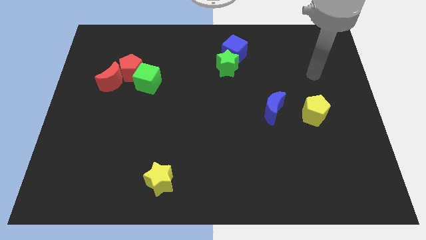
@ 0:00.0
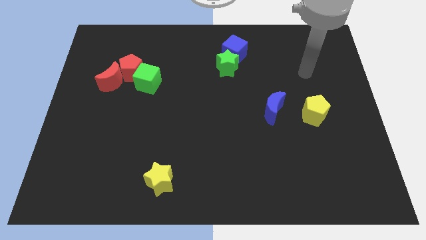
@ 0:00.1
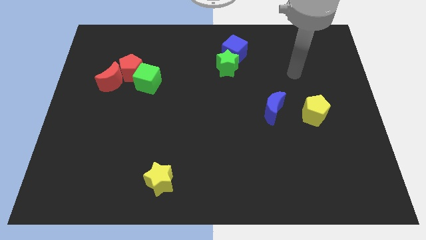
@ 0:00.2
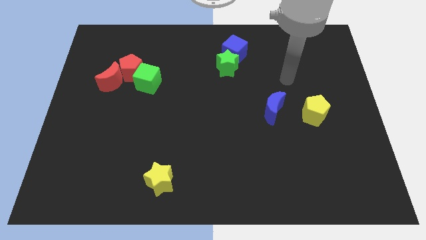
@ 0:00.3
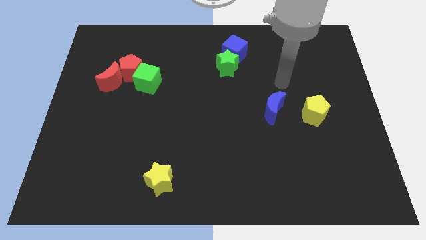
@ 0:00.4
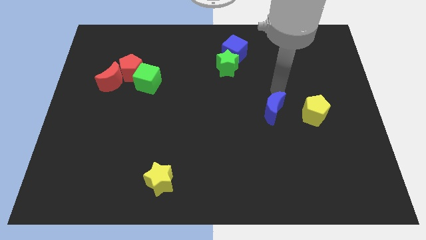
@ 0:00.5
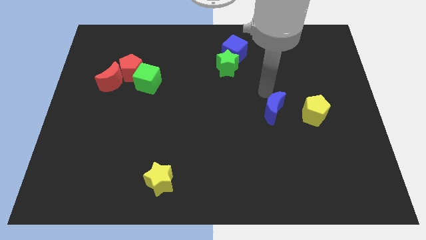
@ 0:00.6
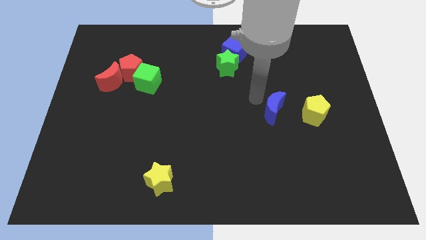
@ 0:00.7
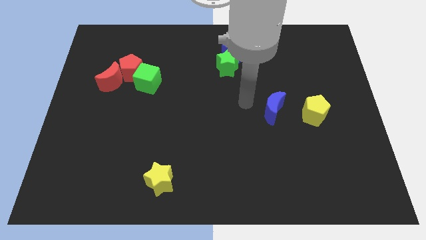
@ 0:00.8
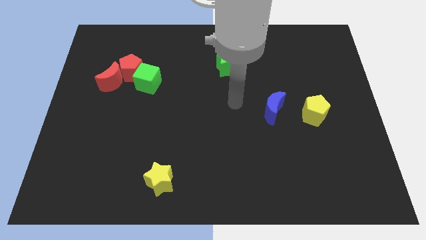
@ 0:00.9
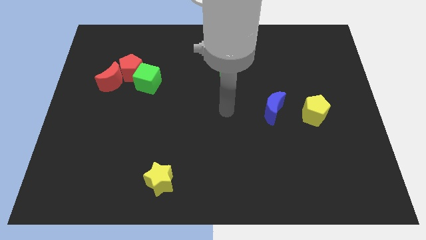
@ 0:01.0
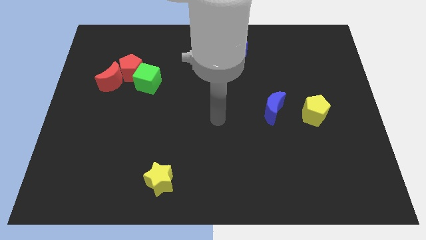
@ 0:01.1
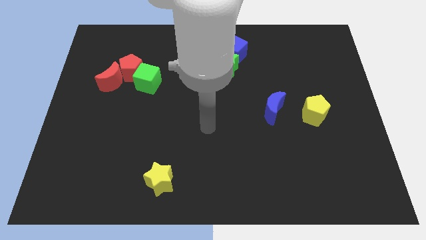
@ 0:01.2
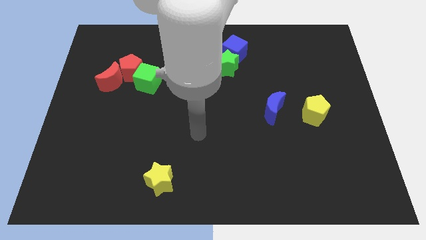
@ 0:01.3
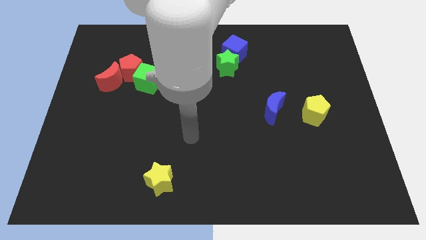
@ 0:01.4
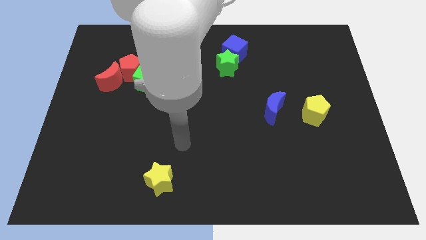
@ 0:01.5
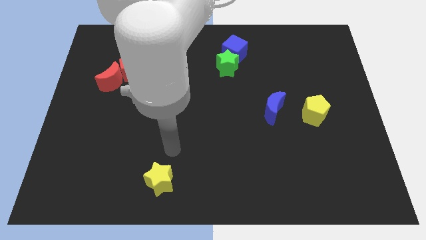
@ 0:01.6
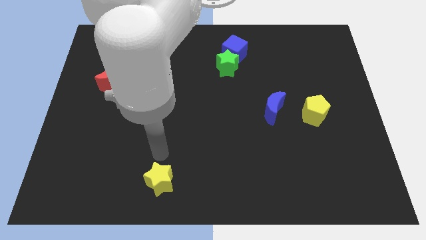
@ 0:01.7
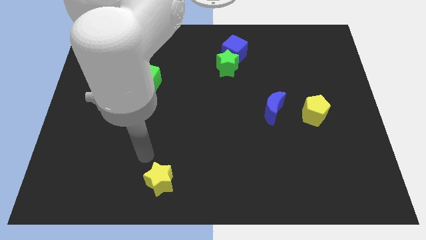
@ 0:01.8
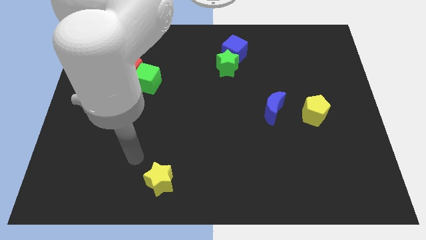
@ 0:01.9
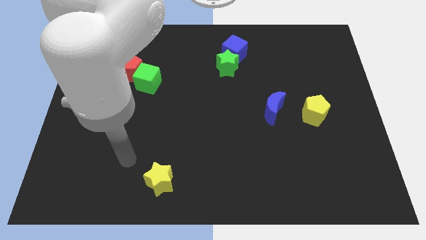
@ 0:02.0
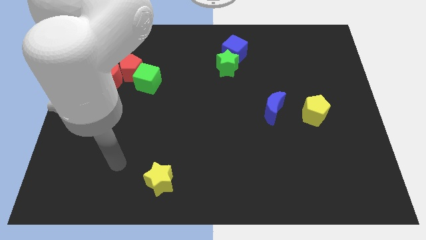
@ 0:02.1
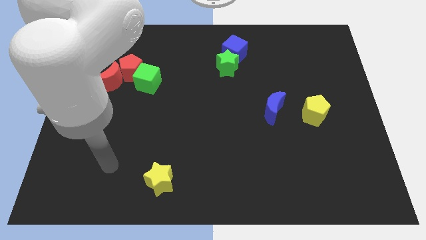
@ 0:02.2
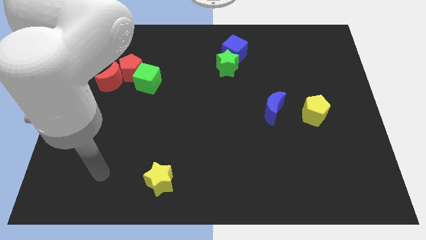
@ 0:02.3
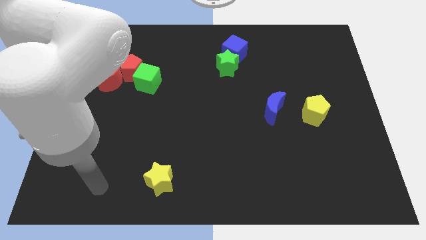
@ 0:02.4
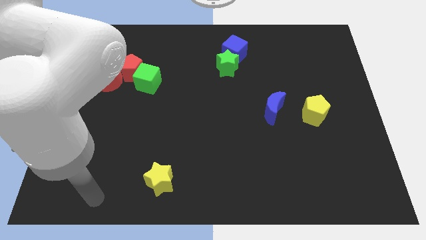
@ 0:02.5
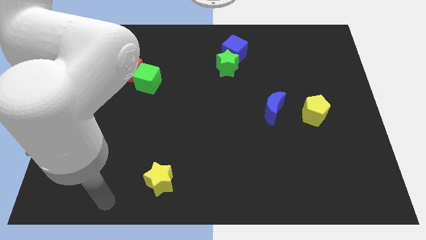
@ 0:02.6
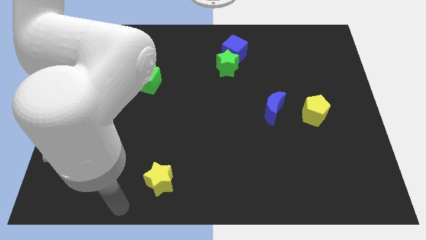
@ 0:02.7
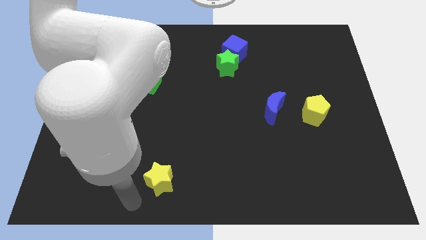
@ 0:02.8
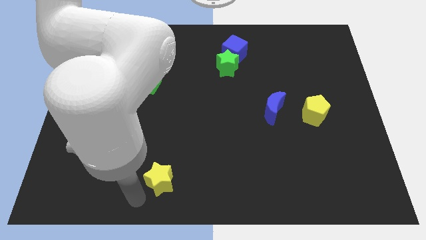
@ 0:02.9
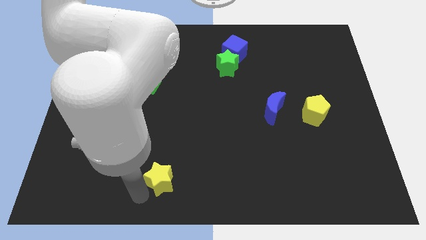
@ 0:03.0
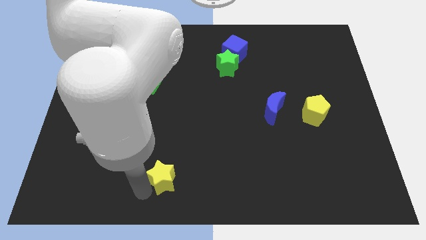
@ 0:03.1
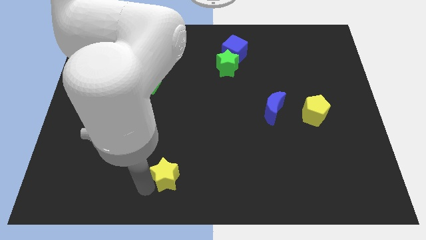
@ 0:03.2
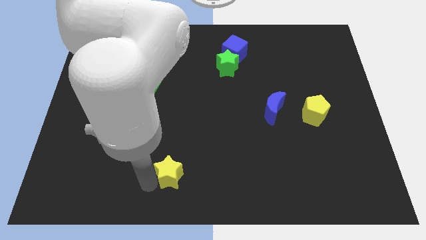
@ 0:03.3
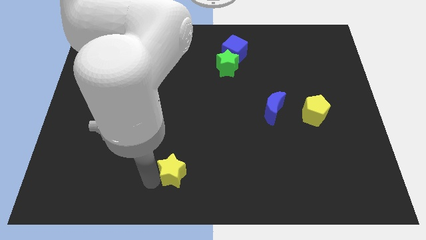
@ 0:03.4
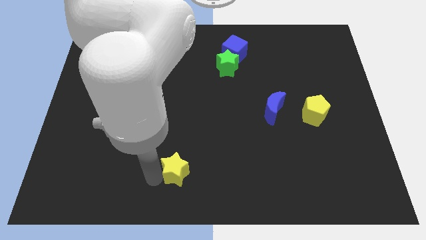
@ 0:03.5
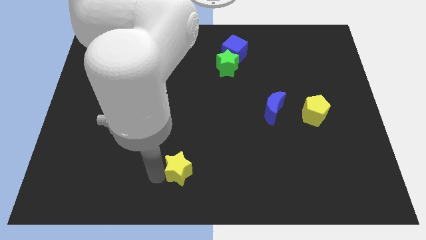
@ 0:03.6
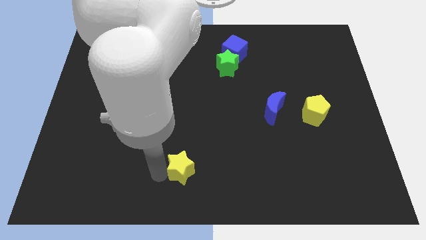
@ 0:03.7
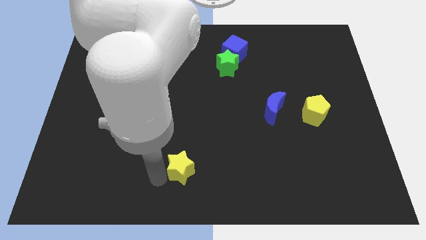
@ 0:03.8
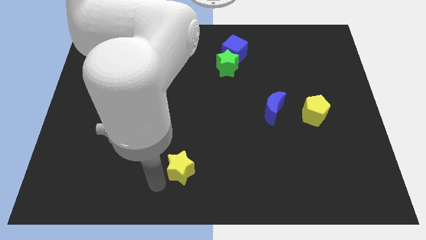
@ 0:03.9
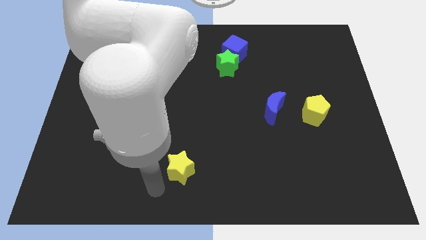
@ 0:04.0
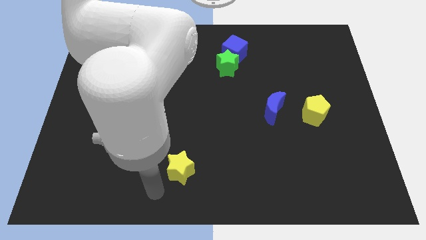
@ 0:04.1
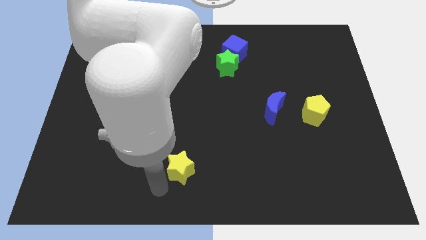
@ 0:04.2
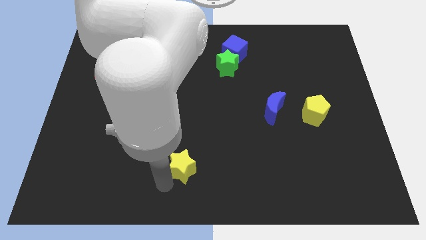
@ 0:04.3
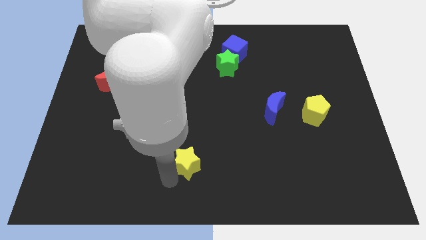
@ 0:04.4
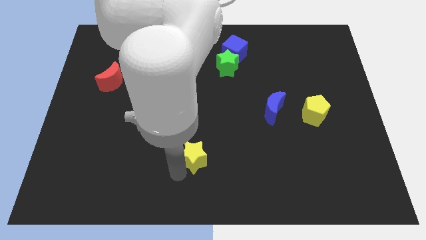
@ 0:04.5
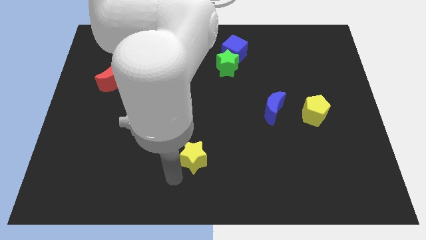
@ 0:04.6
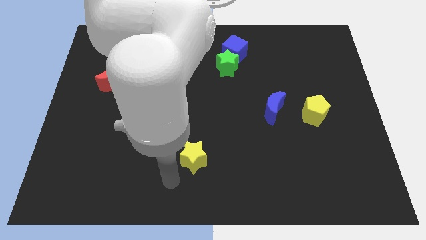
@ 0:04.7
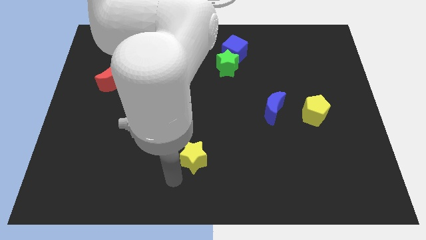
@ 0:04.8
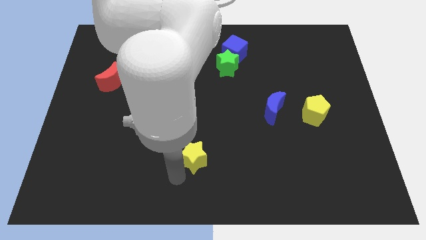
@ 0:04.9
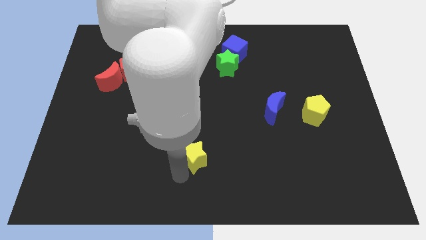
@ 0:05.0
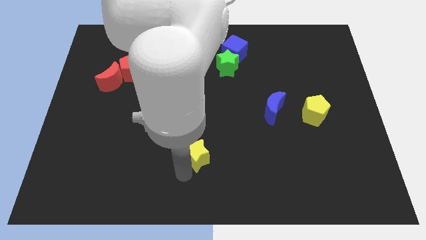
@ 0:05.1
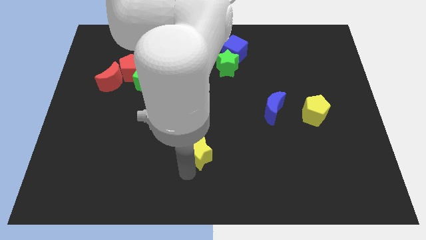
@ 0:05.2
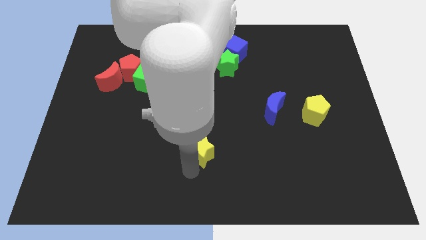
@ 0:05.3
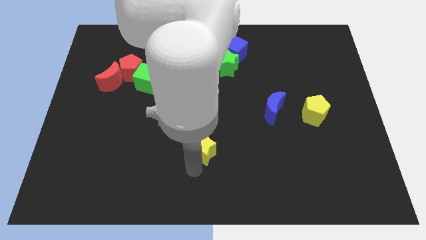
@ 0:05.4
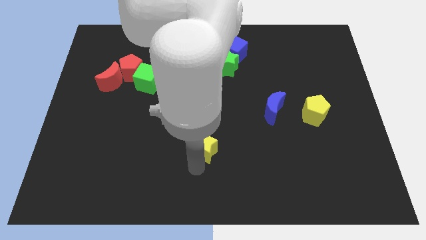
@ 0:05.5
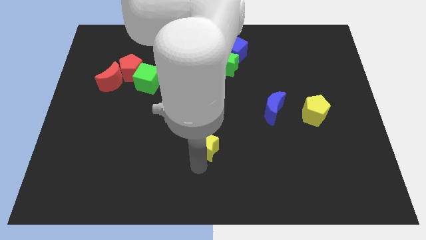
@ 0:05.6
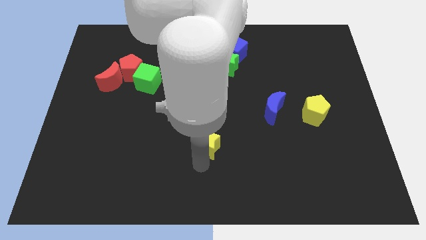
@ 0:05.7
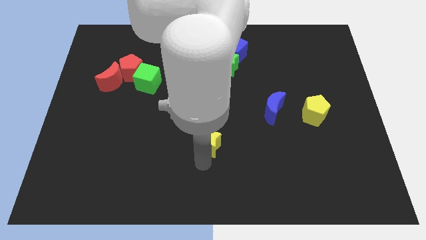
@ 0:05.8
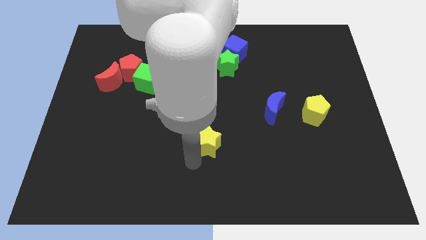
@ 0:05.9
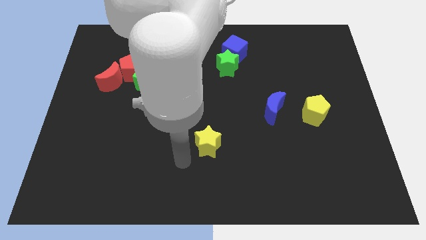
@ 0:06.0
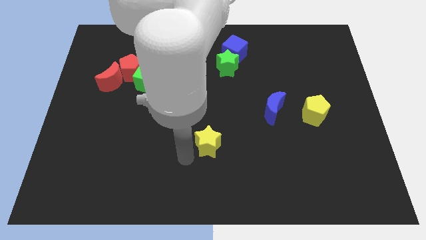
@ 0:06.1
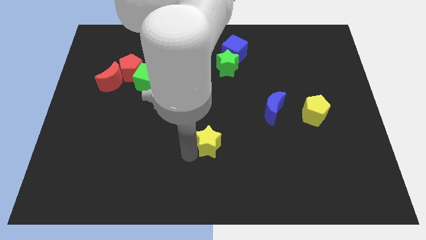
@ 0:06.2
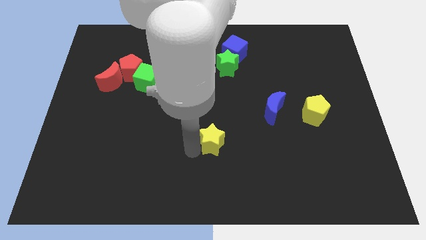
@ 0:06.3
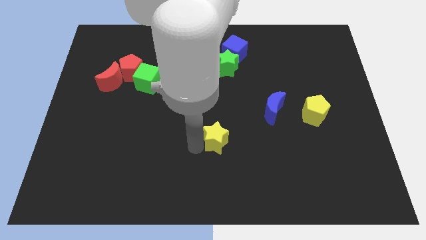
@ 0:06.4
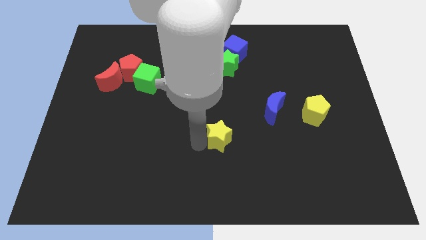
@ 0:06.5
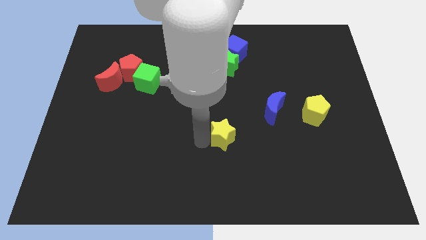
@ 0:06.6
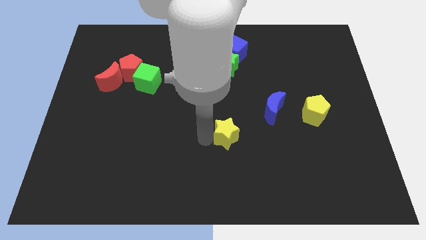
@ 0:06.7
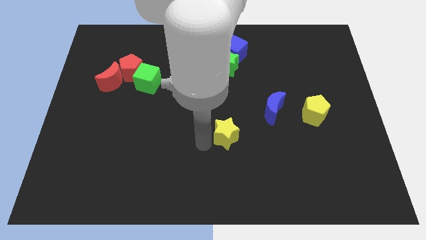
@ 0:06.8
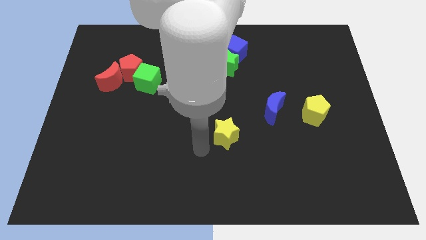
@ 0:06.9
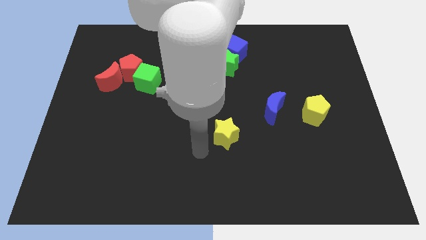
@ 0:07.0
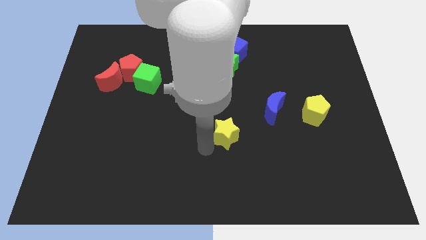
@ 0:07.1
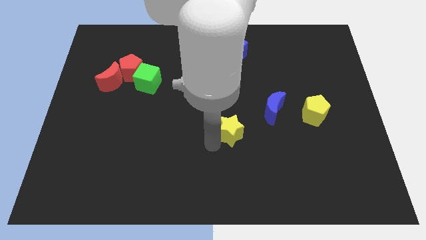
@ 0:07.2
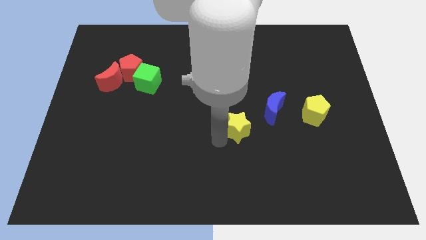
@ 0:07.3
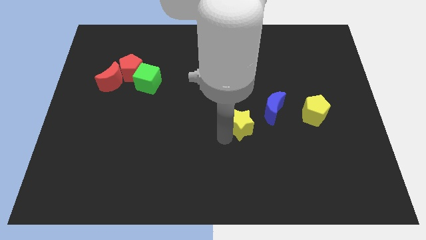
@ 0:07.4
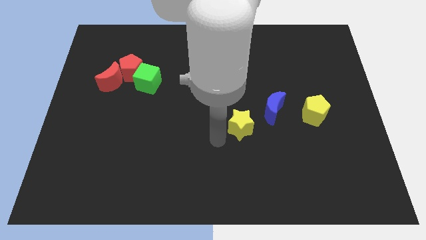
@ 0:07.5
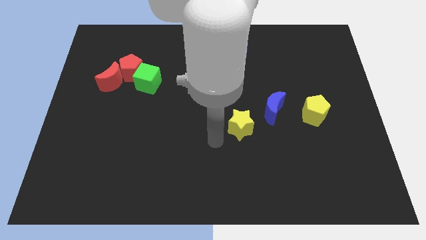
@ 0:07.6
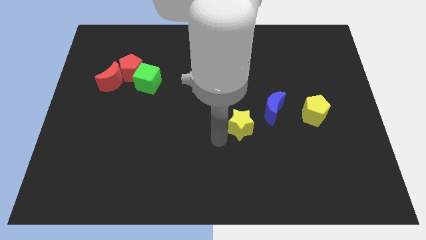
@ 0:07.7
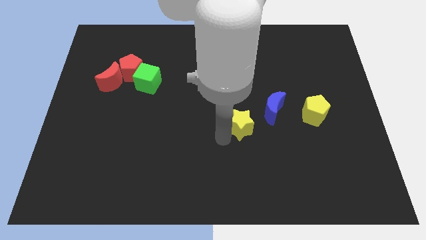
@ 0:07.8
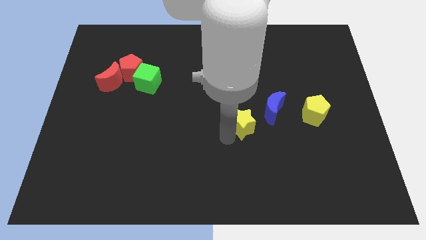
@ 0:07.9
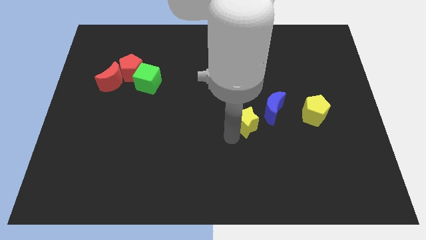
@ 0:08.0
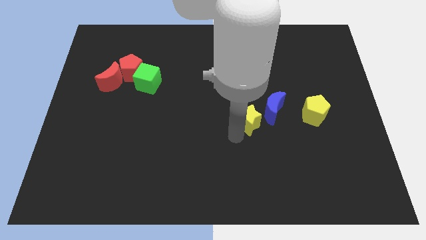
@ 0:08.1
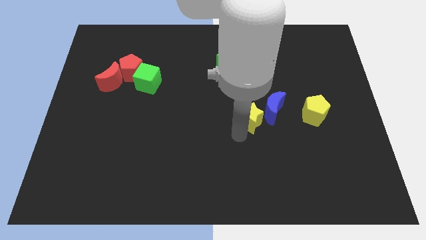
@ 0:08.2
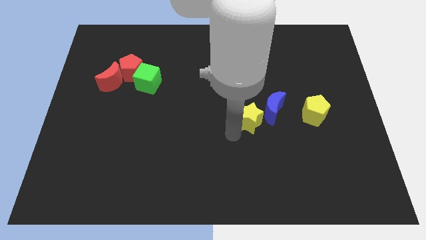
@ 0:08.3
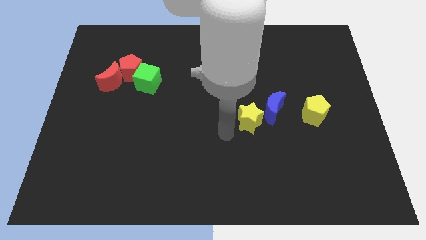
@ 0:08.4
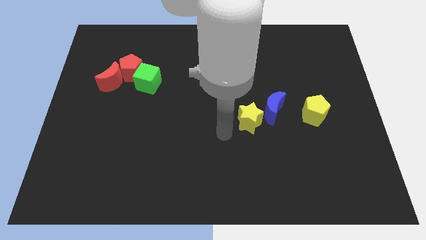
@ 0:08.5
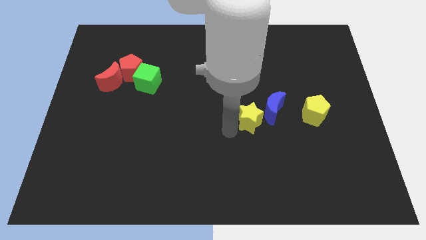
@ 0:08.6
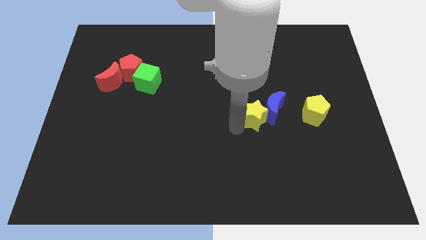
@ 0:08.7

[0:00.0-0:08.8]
slide the yellow star to the blue moon
